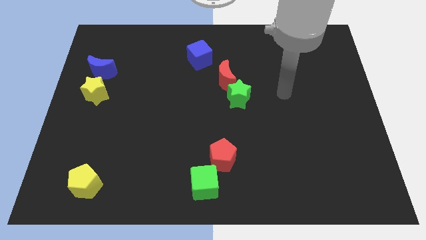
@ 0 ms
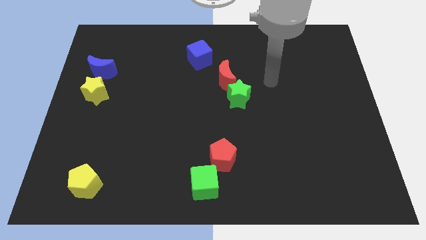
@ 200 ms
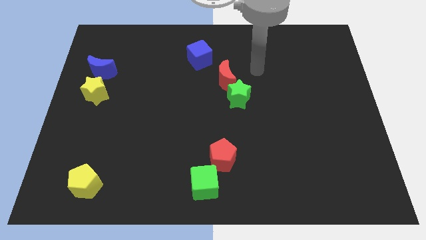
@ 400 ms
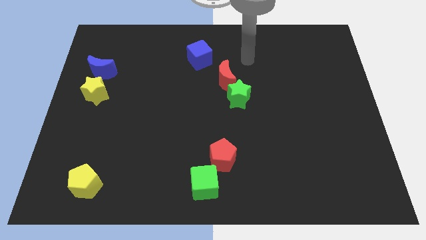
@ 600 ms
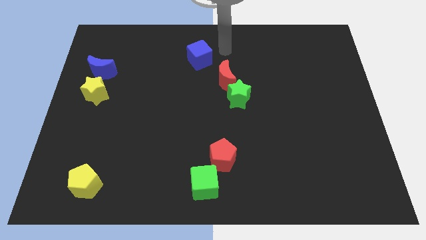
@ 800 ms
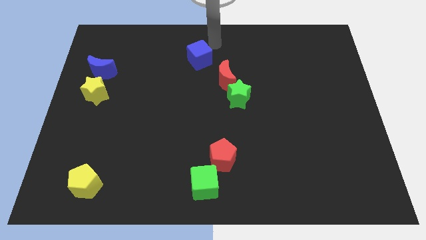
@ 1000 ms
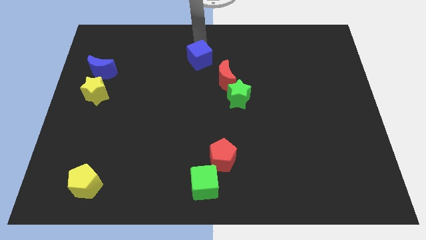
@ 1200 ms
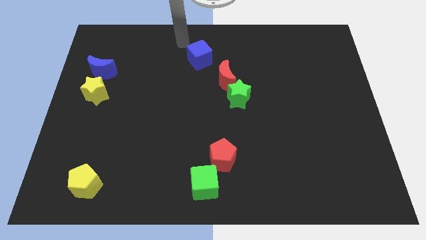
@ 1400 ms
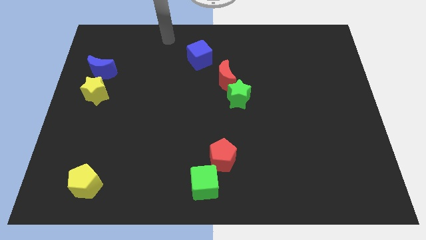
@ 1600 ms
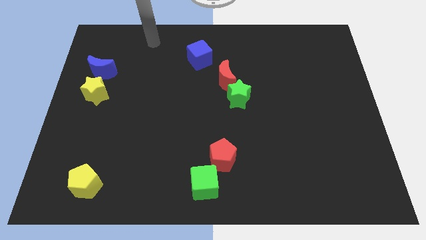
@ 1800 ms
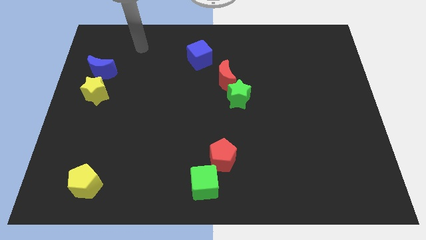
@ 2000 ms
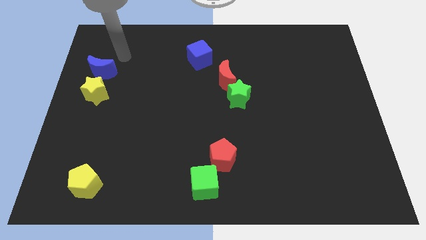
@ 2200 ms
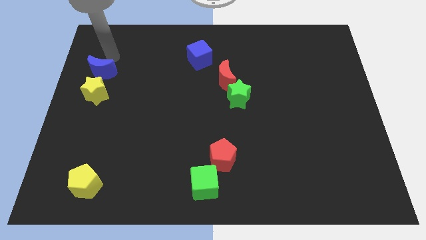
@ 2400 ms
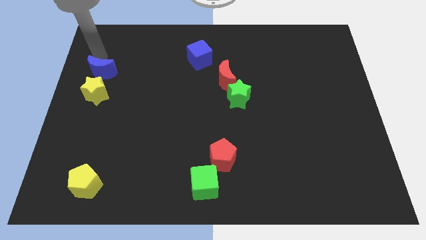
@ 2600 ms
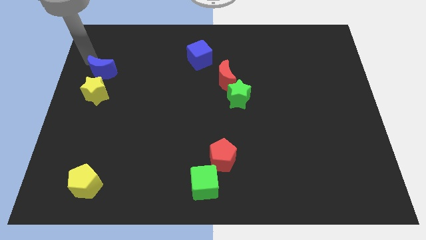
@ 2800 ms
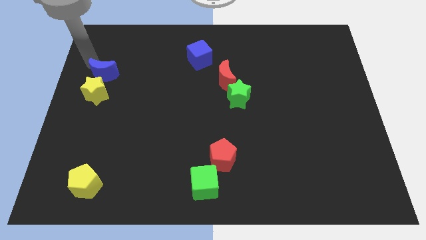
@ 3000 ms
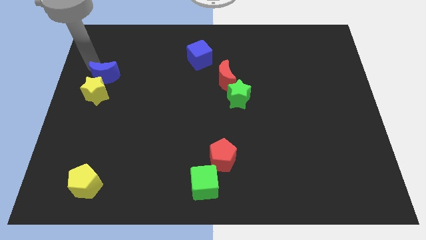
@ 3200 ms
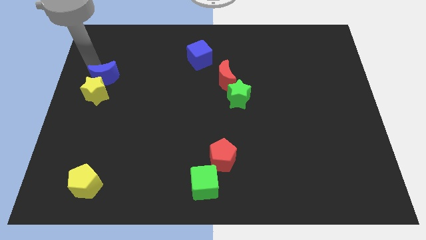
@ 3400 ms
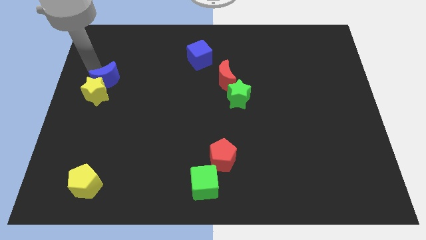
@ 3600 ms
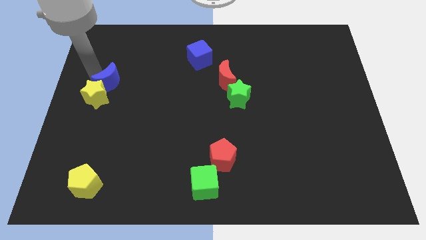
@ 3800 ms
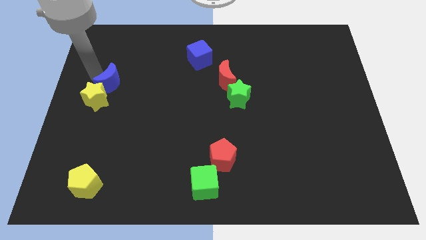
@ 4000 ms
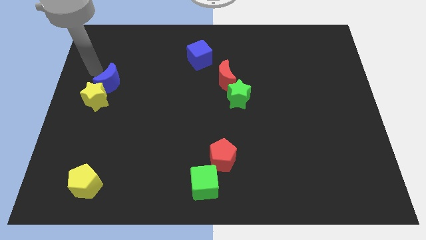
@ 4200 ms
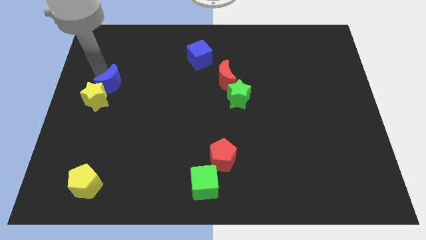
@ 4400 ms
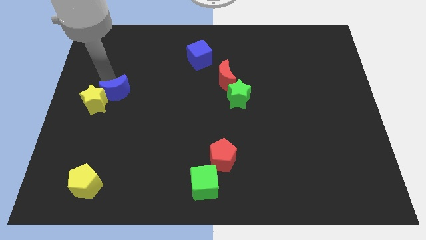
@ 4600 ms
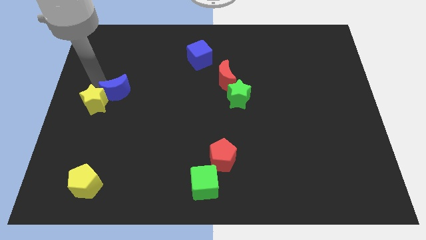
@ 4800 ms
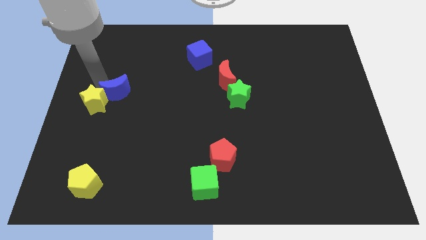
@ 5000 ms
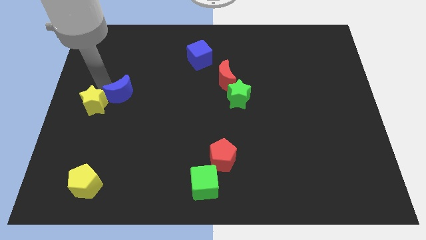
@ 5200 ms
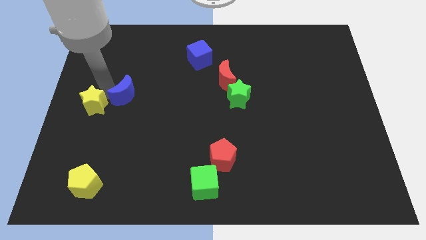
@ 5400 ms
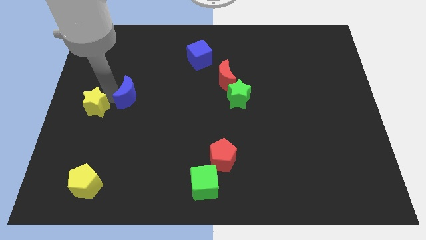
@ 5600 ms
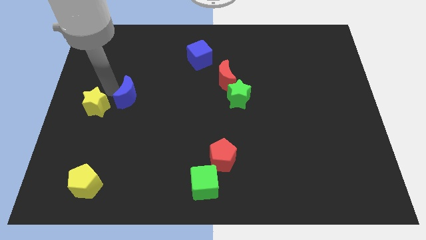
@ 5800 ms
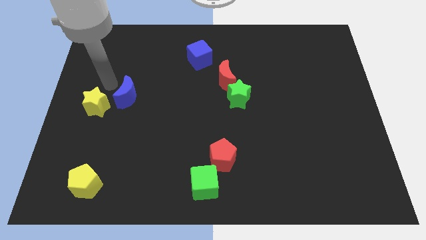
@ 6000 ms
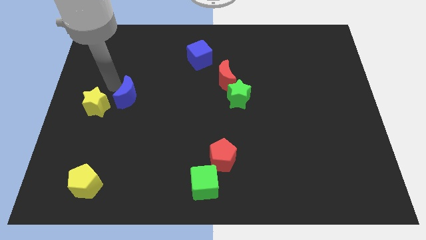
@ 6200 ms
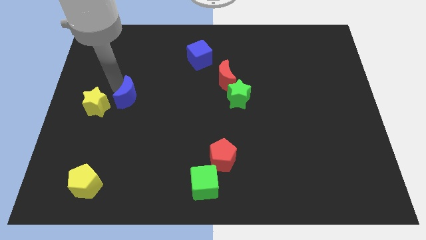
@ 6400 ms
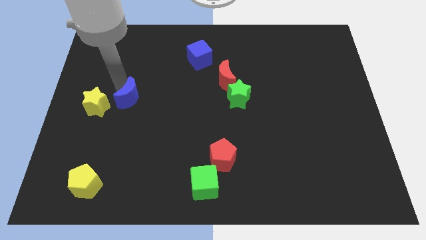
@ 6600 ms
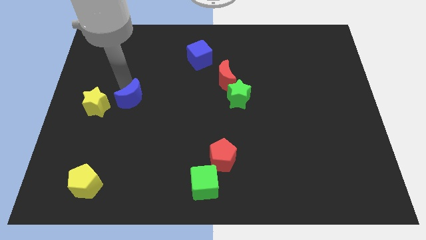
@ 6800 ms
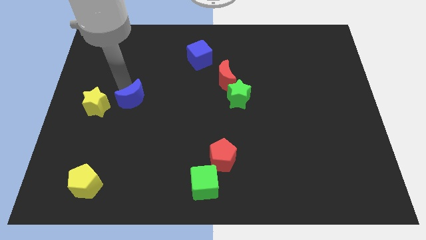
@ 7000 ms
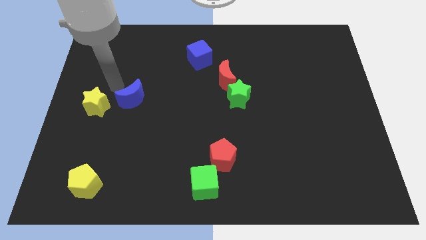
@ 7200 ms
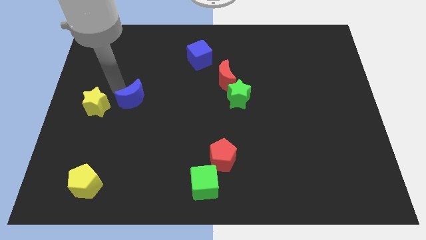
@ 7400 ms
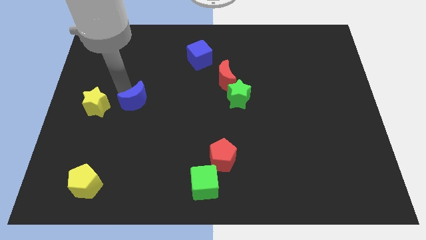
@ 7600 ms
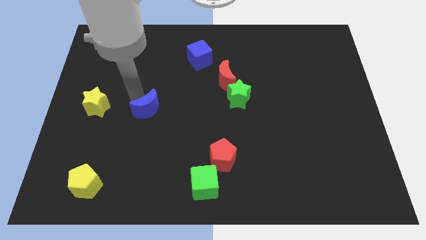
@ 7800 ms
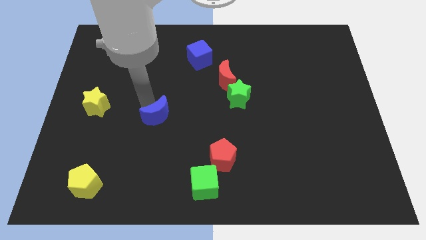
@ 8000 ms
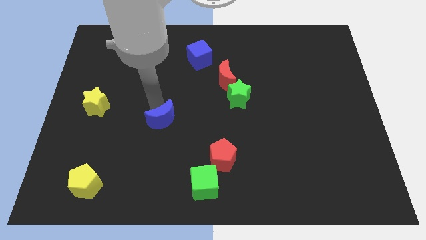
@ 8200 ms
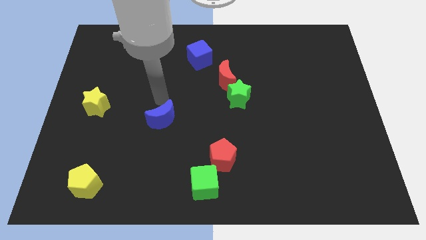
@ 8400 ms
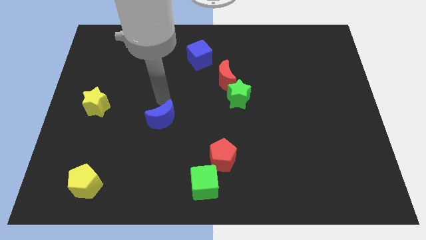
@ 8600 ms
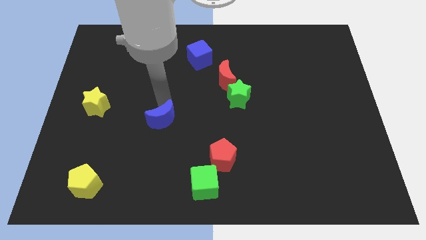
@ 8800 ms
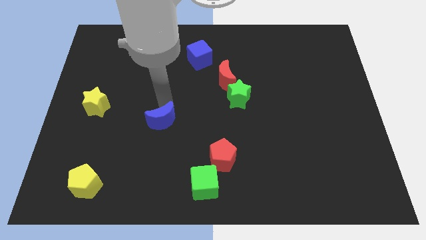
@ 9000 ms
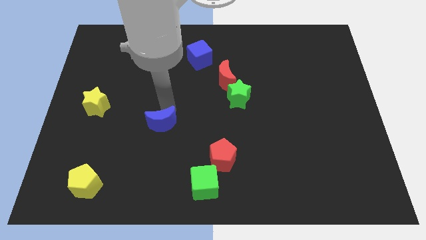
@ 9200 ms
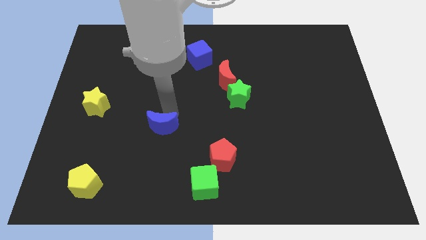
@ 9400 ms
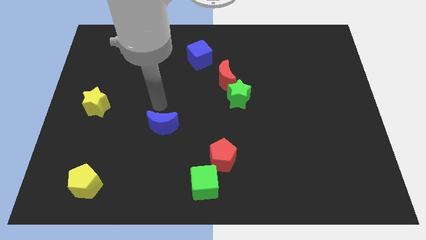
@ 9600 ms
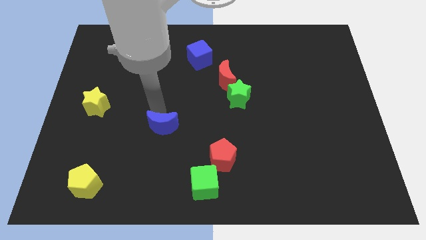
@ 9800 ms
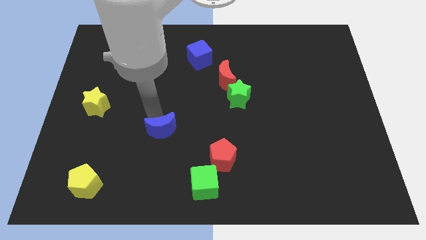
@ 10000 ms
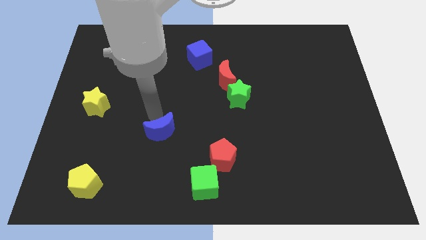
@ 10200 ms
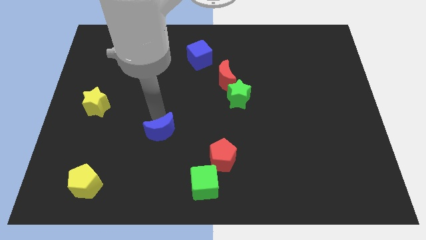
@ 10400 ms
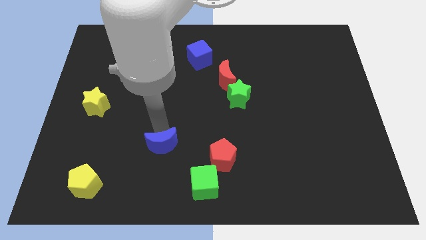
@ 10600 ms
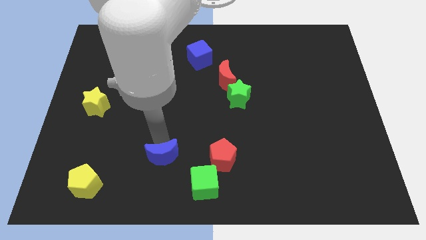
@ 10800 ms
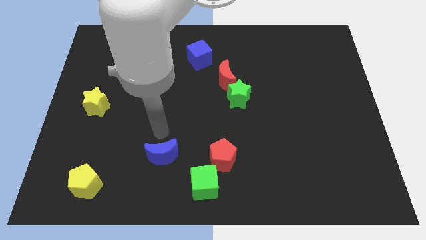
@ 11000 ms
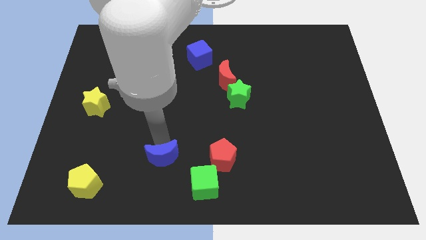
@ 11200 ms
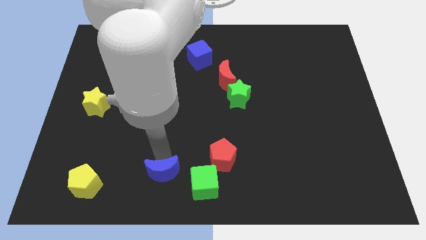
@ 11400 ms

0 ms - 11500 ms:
slide the blue moon to the bottom side
